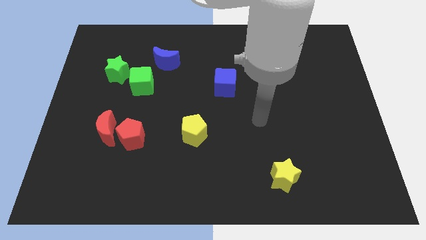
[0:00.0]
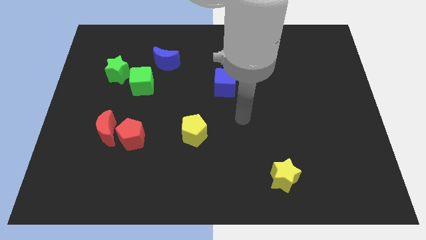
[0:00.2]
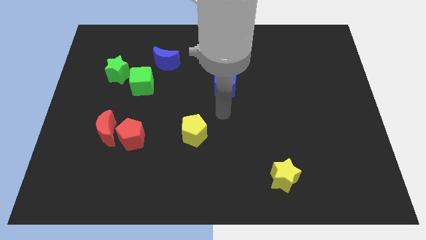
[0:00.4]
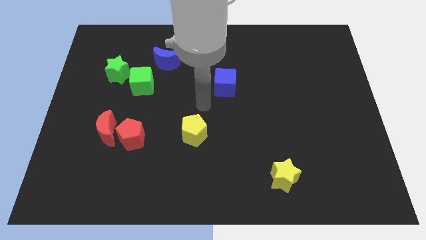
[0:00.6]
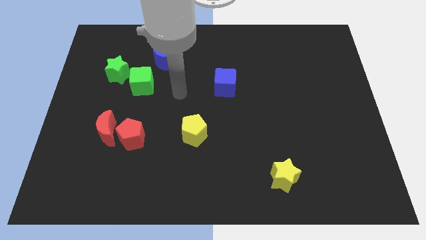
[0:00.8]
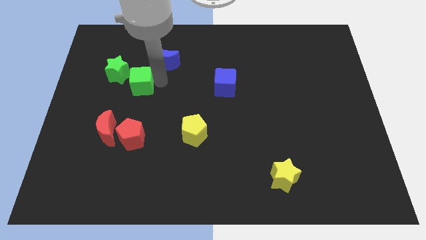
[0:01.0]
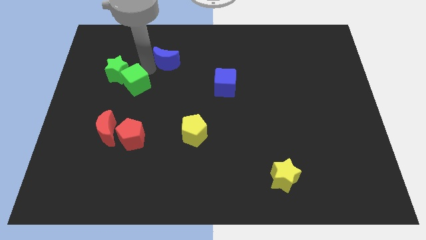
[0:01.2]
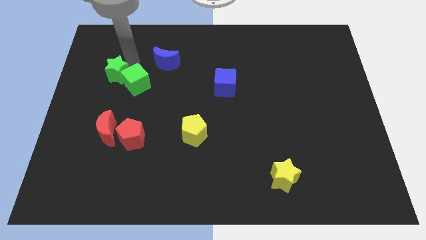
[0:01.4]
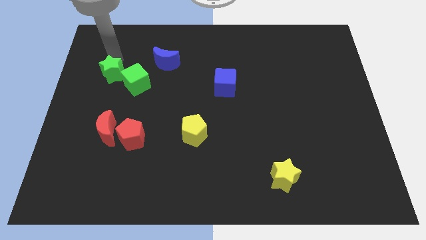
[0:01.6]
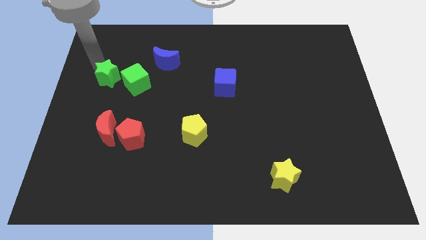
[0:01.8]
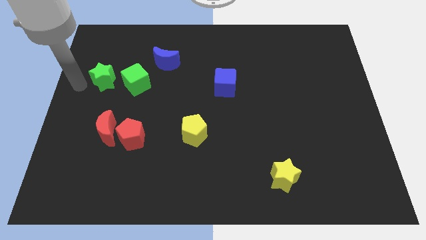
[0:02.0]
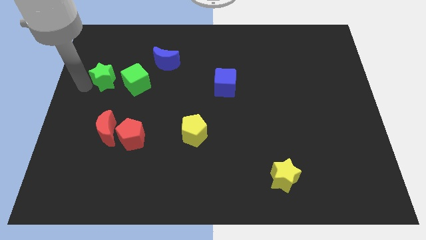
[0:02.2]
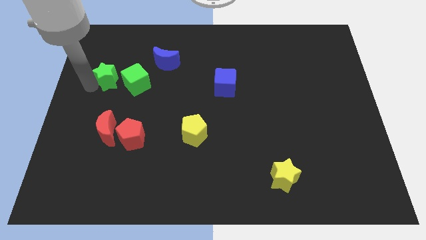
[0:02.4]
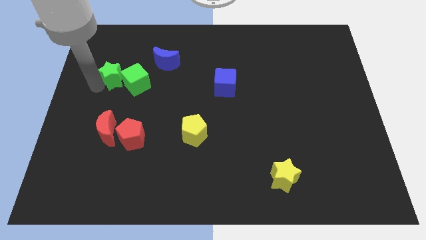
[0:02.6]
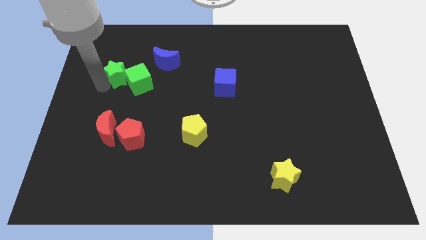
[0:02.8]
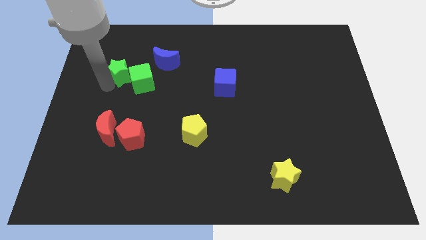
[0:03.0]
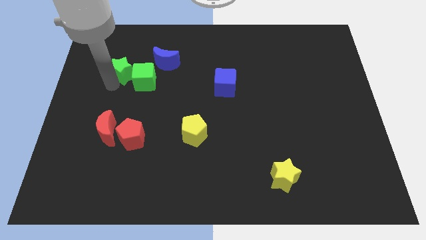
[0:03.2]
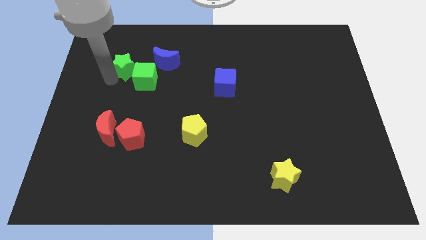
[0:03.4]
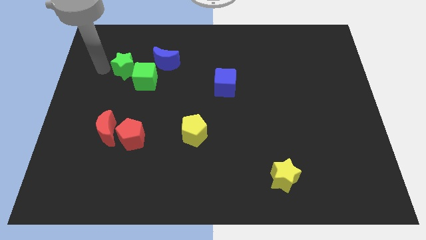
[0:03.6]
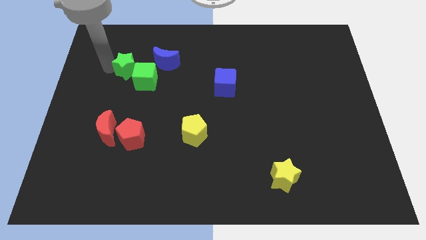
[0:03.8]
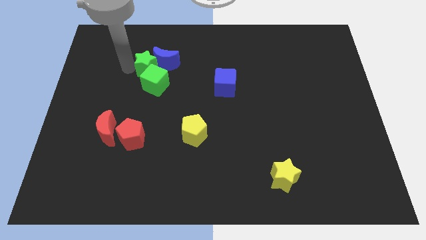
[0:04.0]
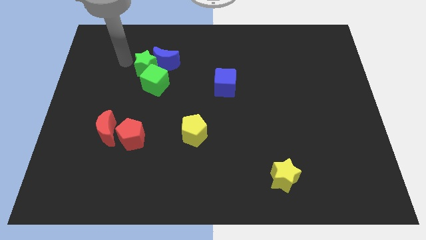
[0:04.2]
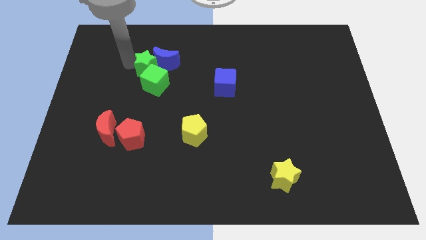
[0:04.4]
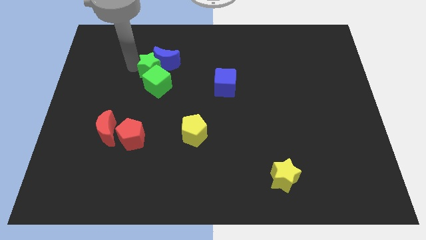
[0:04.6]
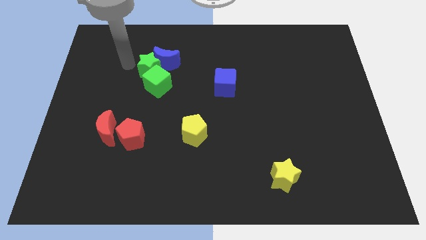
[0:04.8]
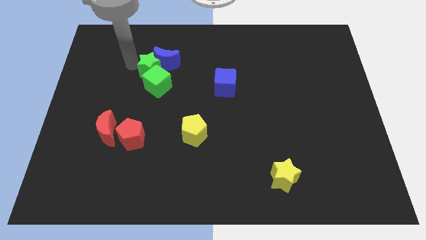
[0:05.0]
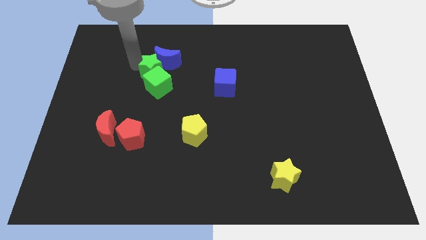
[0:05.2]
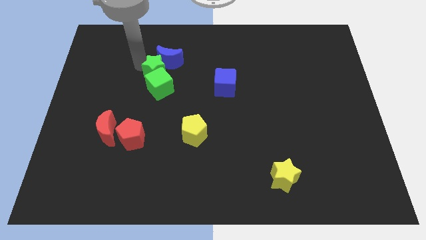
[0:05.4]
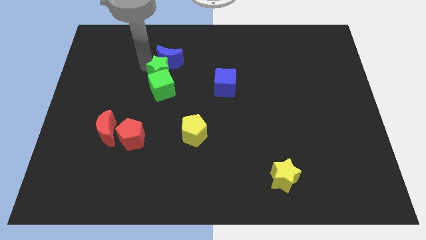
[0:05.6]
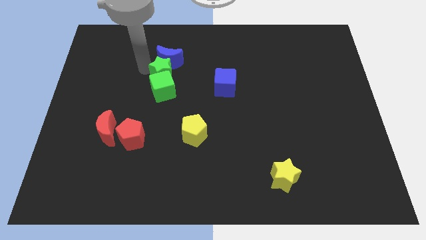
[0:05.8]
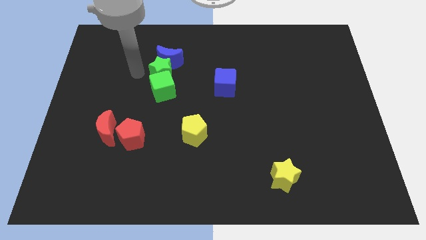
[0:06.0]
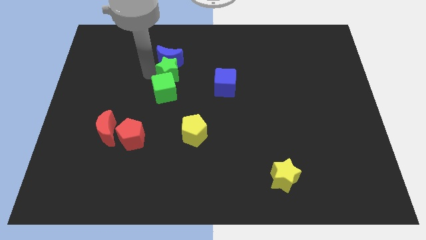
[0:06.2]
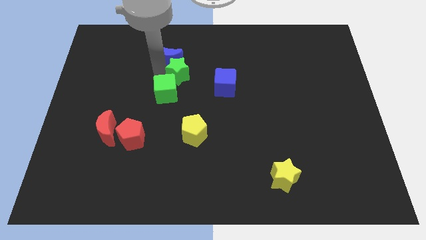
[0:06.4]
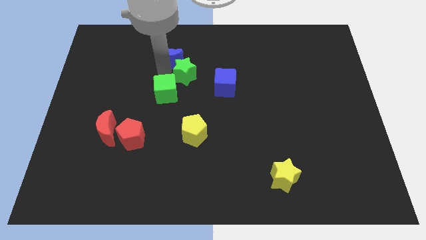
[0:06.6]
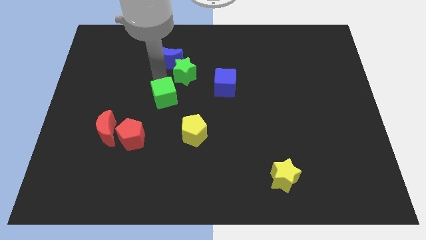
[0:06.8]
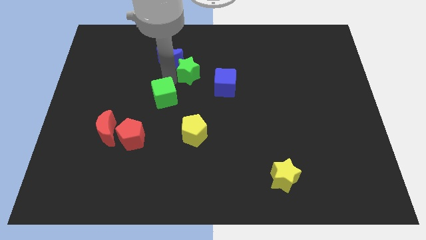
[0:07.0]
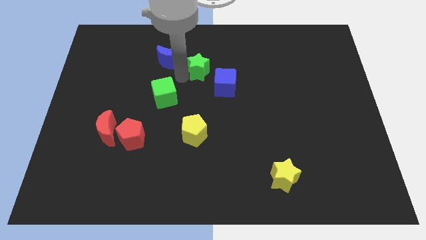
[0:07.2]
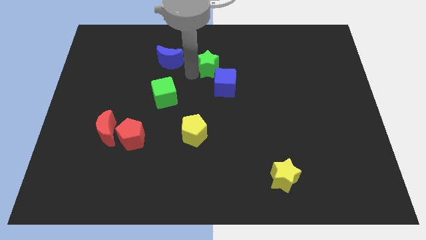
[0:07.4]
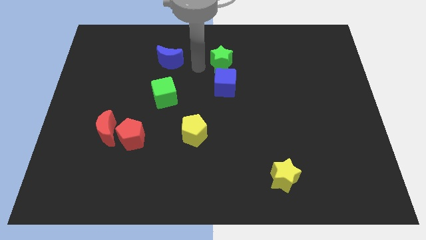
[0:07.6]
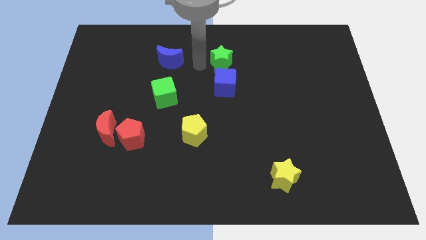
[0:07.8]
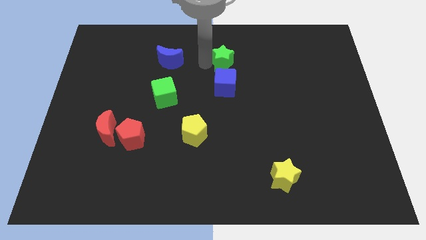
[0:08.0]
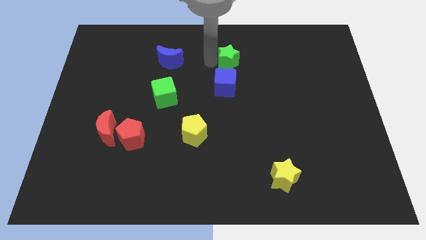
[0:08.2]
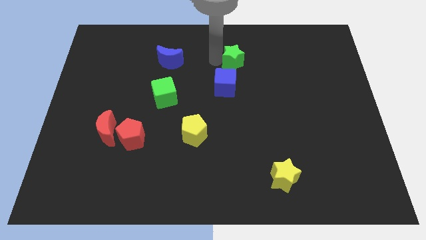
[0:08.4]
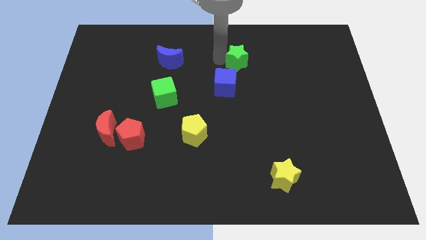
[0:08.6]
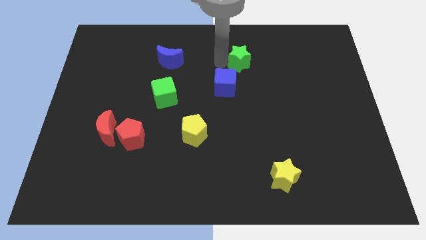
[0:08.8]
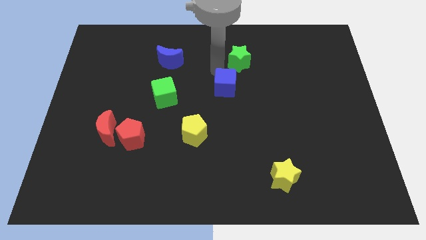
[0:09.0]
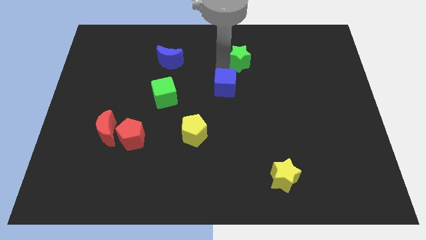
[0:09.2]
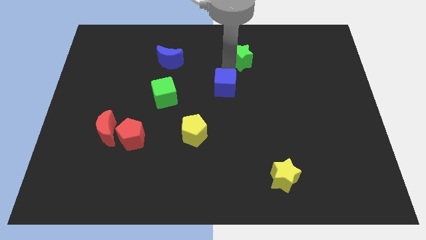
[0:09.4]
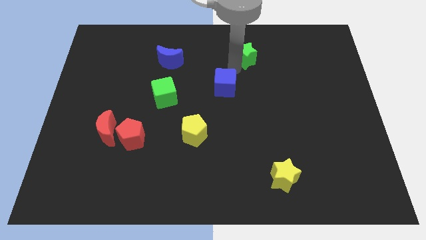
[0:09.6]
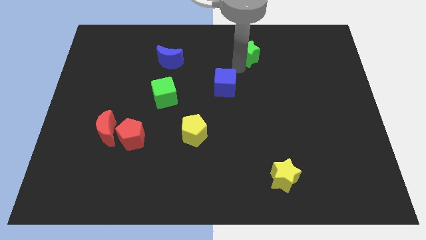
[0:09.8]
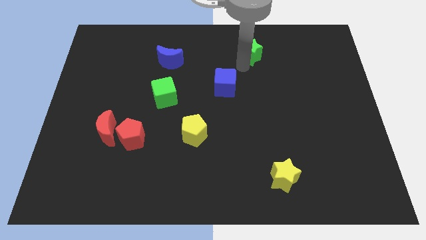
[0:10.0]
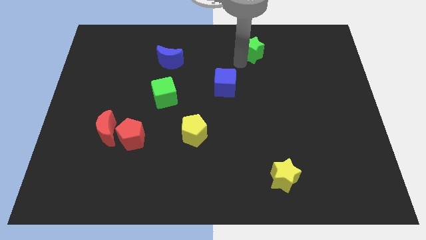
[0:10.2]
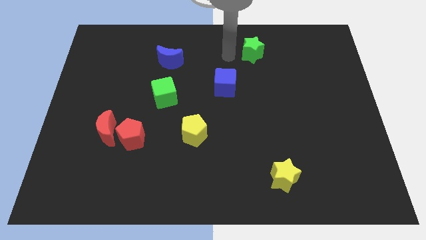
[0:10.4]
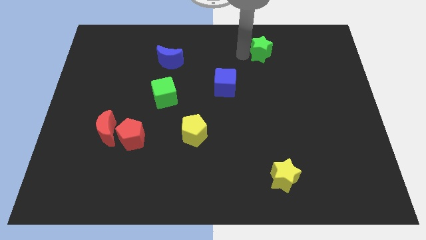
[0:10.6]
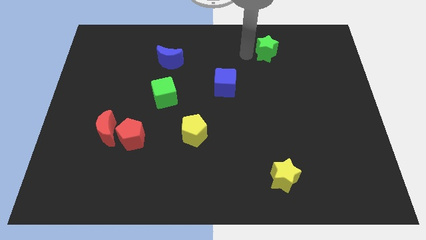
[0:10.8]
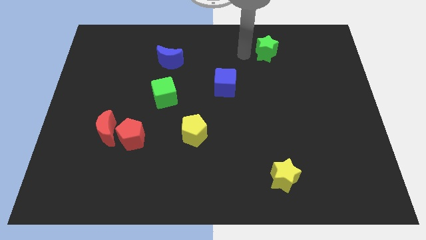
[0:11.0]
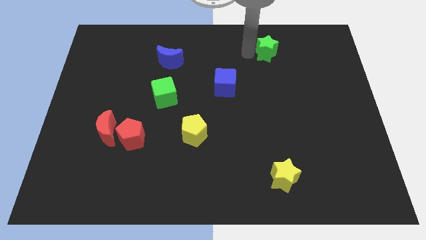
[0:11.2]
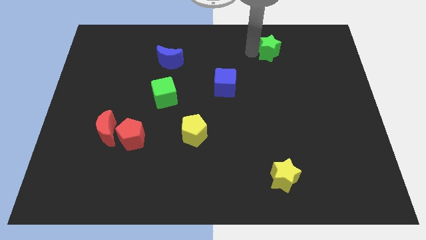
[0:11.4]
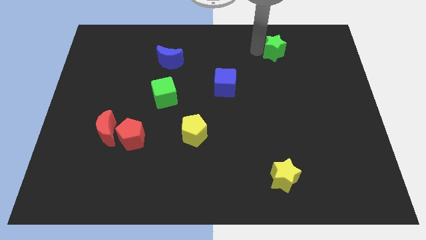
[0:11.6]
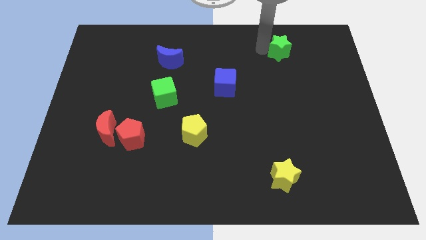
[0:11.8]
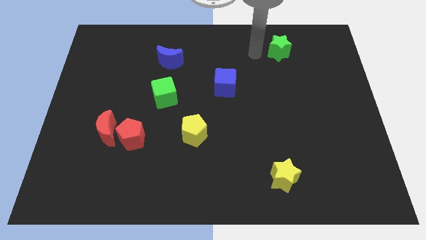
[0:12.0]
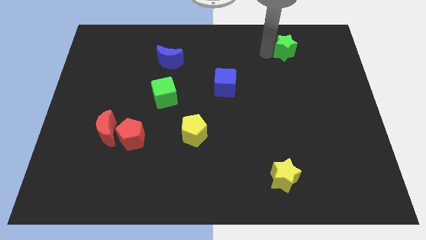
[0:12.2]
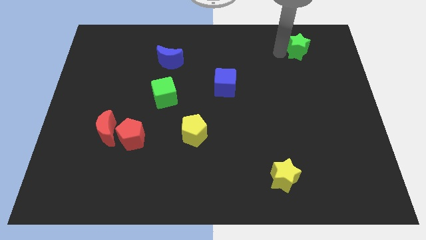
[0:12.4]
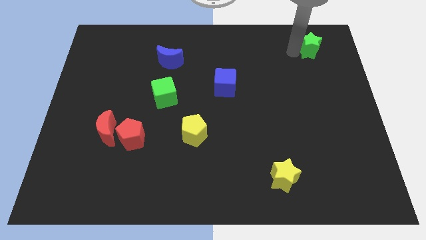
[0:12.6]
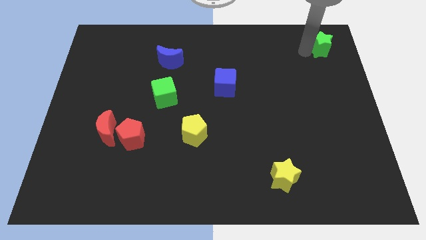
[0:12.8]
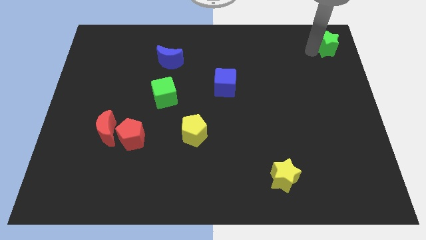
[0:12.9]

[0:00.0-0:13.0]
put the green star to the top right

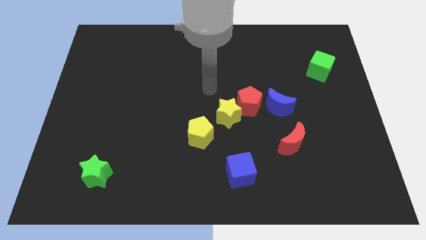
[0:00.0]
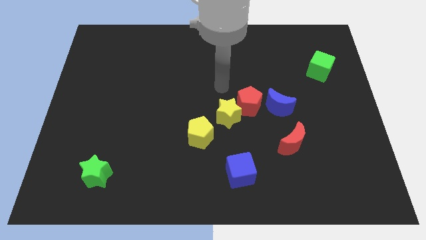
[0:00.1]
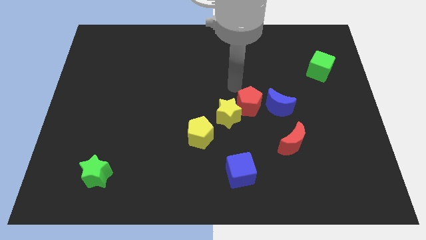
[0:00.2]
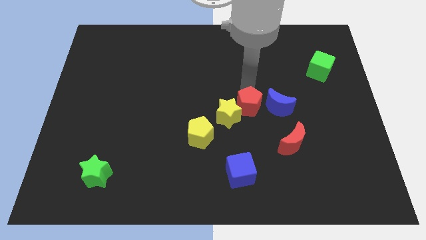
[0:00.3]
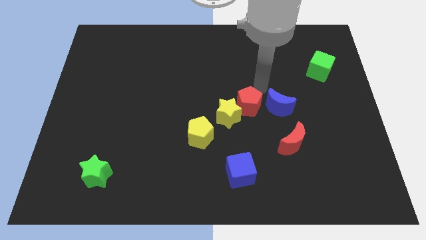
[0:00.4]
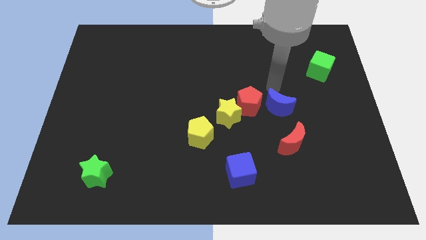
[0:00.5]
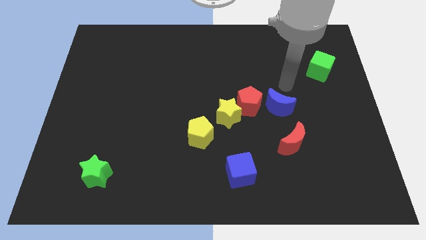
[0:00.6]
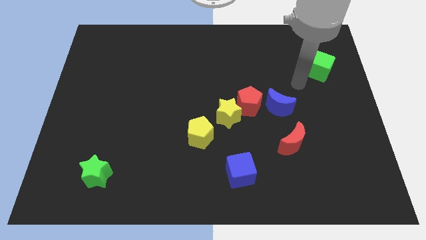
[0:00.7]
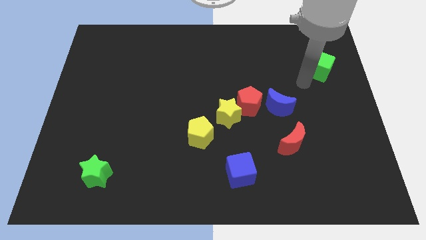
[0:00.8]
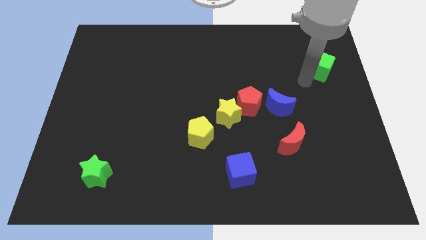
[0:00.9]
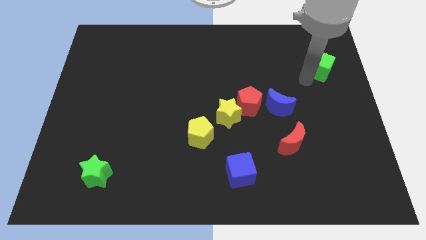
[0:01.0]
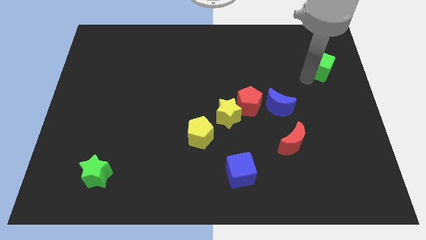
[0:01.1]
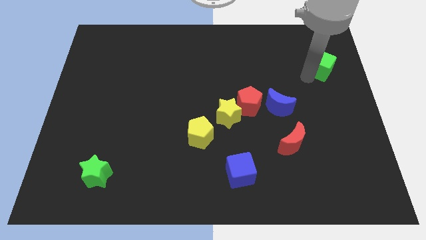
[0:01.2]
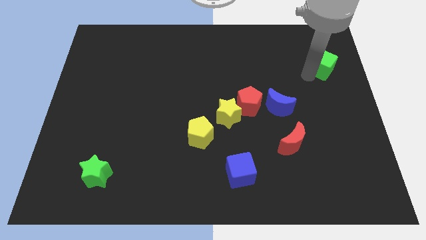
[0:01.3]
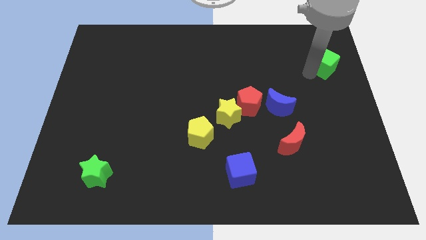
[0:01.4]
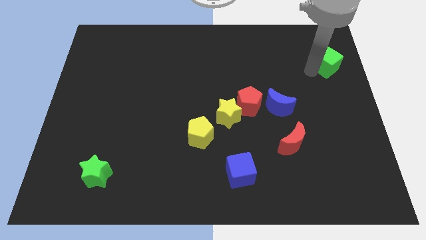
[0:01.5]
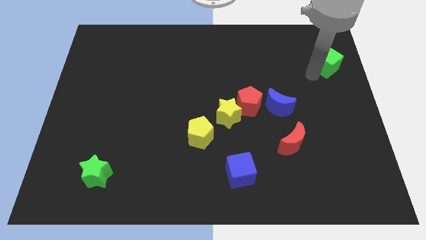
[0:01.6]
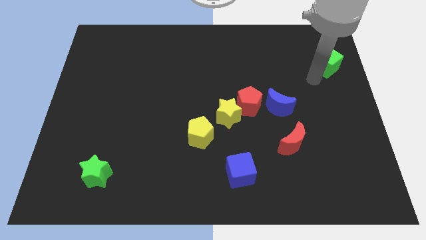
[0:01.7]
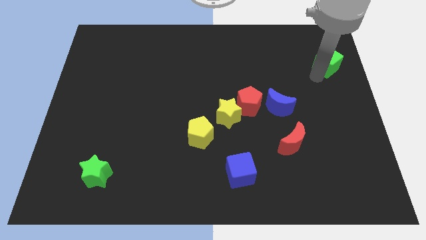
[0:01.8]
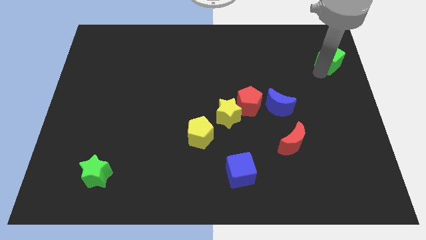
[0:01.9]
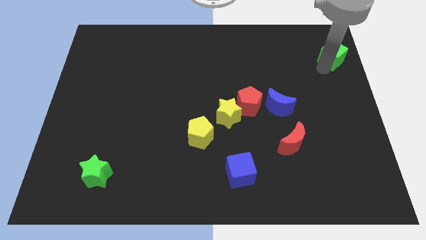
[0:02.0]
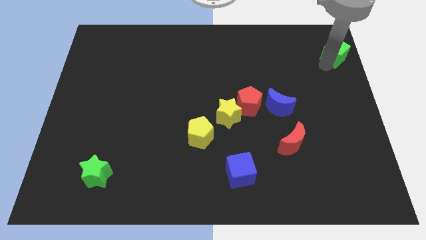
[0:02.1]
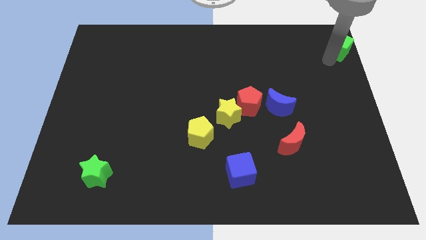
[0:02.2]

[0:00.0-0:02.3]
push the green cube to the top right corner
